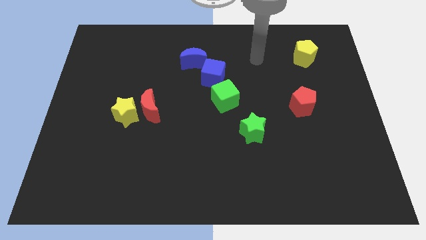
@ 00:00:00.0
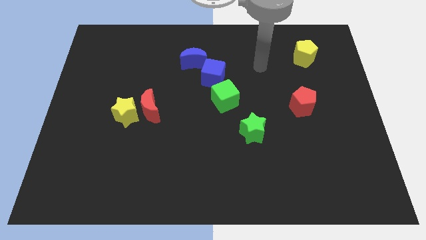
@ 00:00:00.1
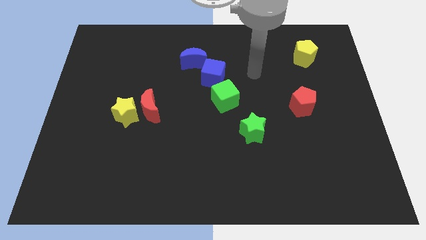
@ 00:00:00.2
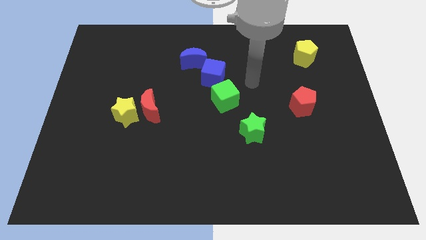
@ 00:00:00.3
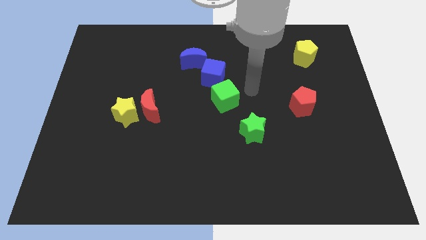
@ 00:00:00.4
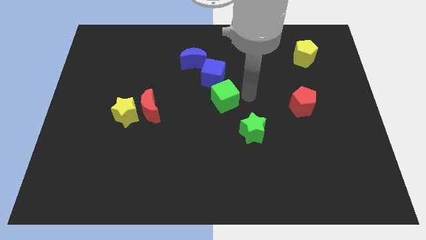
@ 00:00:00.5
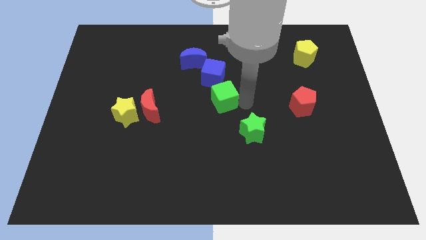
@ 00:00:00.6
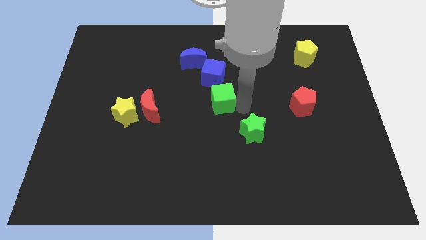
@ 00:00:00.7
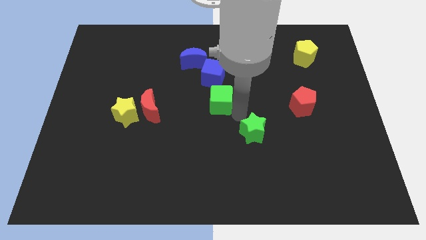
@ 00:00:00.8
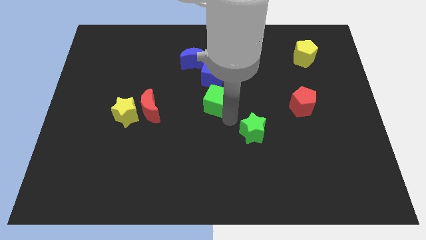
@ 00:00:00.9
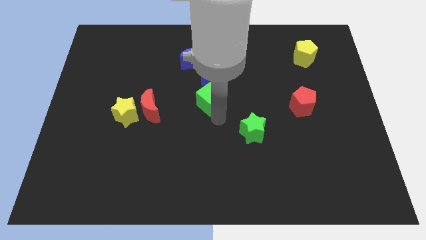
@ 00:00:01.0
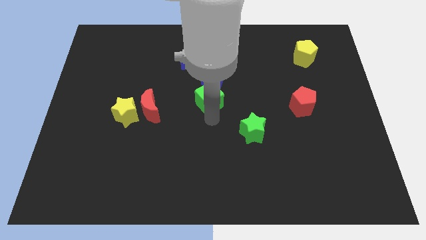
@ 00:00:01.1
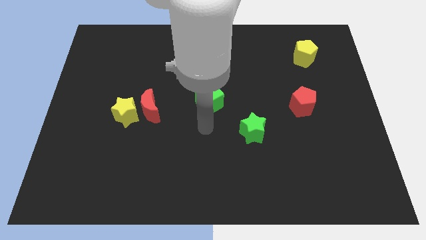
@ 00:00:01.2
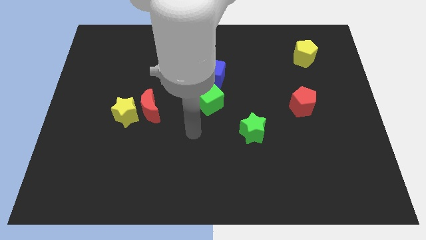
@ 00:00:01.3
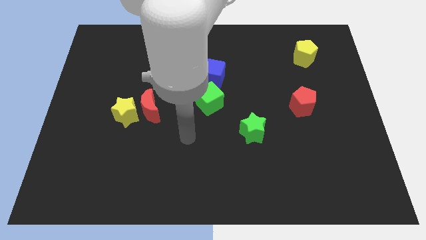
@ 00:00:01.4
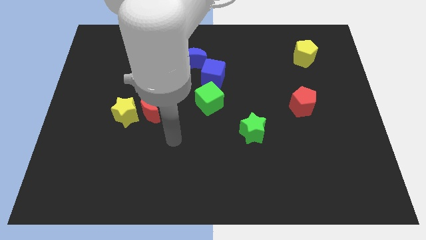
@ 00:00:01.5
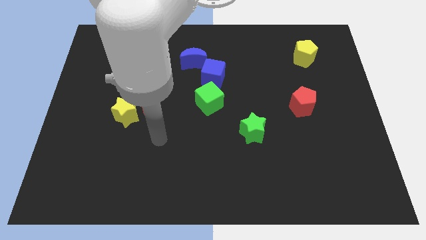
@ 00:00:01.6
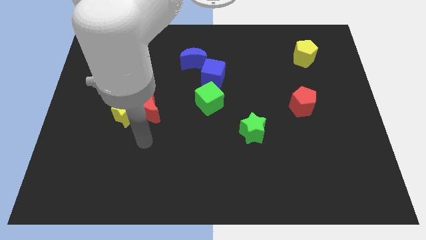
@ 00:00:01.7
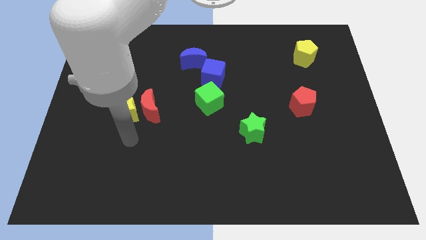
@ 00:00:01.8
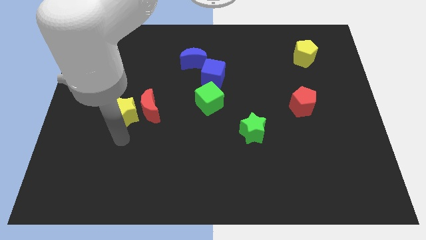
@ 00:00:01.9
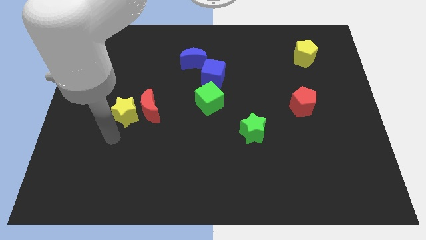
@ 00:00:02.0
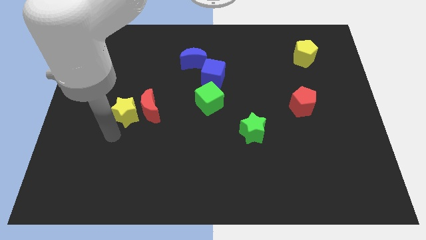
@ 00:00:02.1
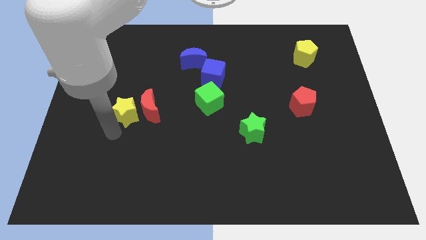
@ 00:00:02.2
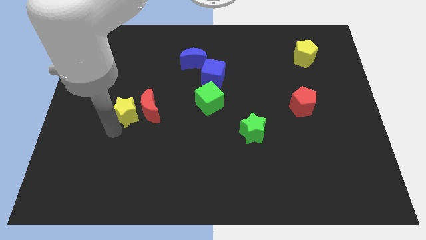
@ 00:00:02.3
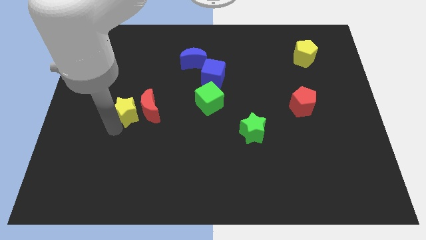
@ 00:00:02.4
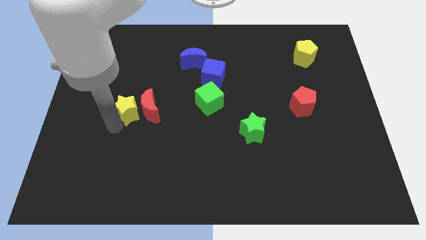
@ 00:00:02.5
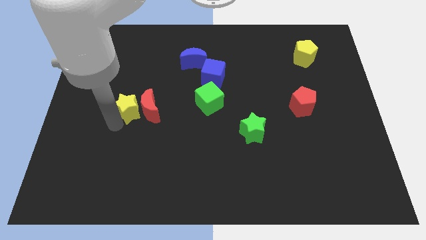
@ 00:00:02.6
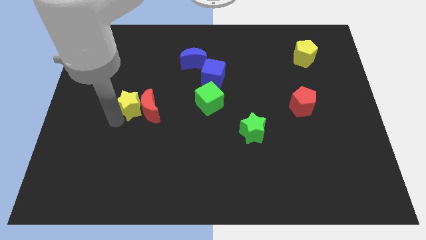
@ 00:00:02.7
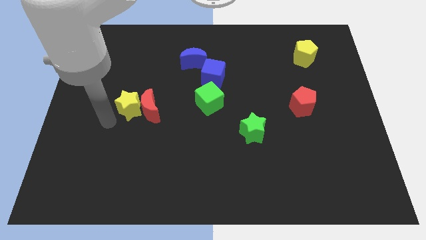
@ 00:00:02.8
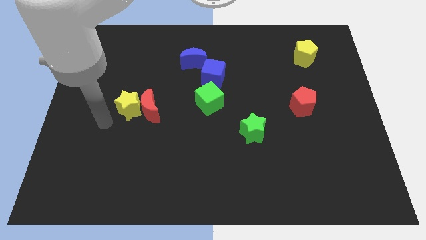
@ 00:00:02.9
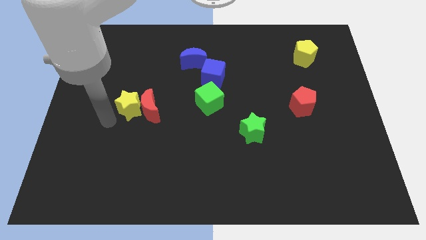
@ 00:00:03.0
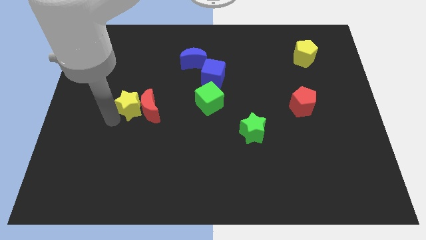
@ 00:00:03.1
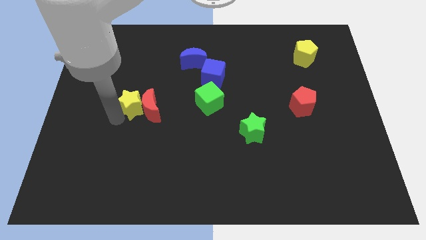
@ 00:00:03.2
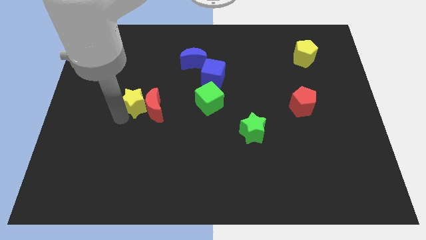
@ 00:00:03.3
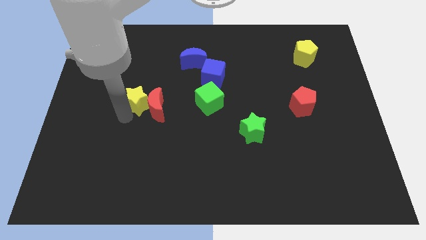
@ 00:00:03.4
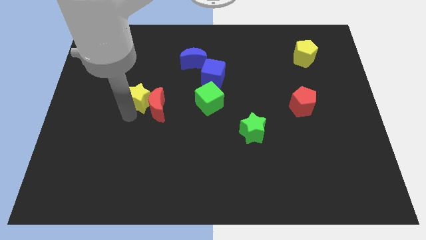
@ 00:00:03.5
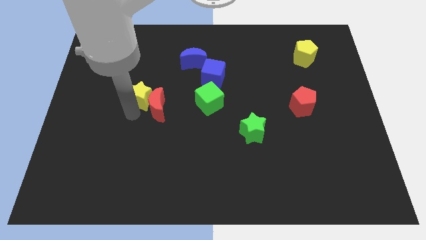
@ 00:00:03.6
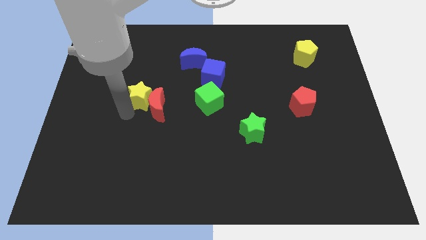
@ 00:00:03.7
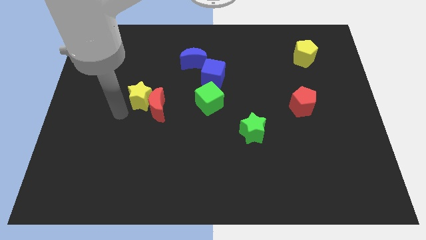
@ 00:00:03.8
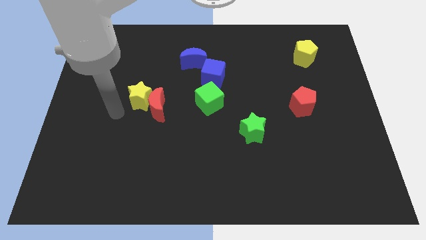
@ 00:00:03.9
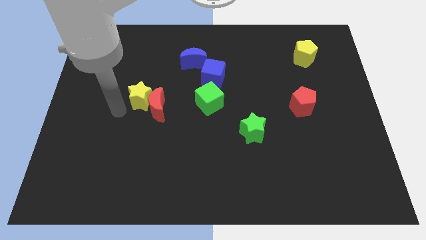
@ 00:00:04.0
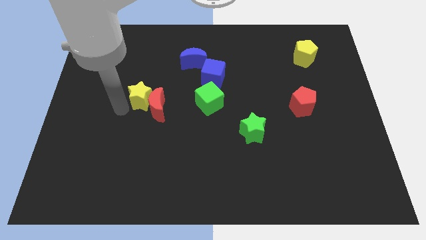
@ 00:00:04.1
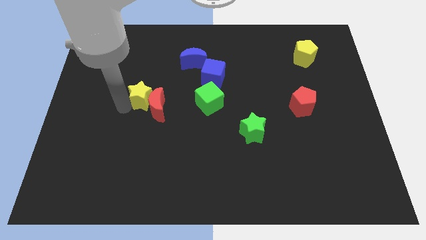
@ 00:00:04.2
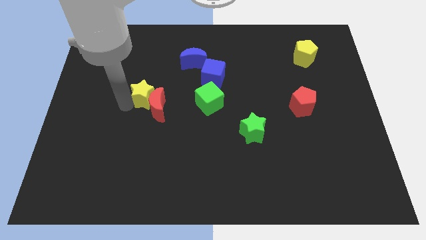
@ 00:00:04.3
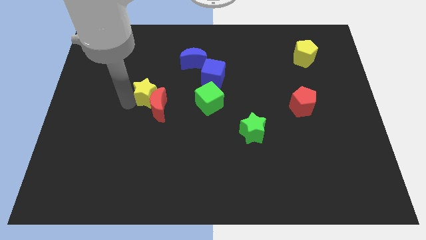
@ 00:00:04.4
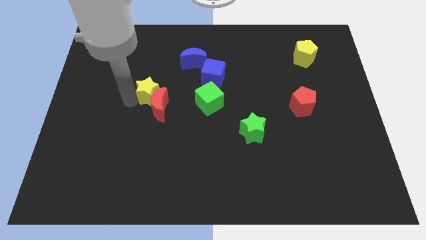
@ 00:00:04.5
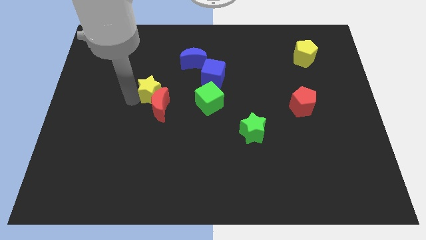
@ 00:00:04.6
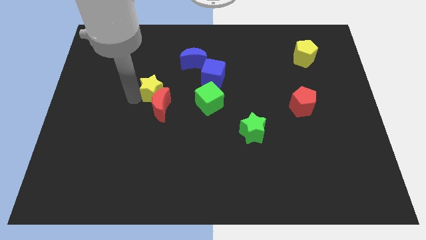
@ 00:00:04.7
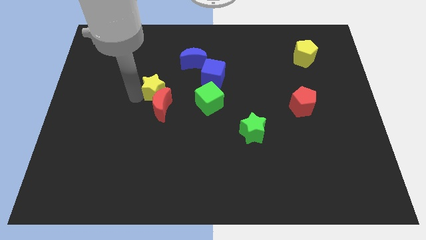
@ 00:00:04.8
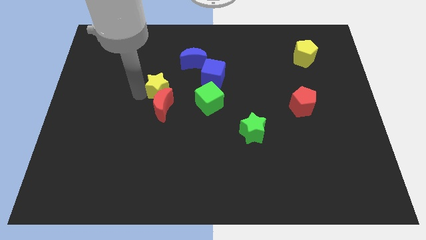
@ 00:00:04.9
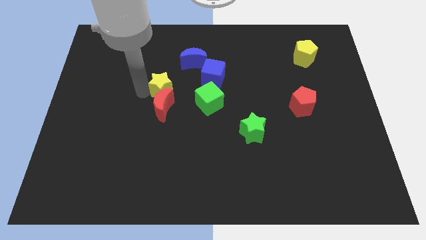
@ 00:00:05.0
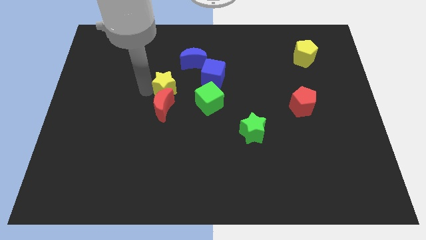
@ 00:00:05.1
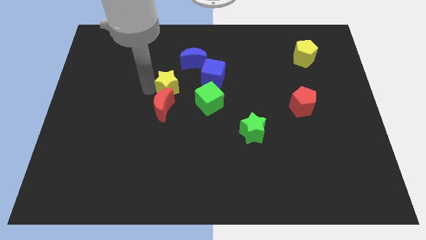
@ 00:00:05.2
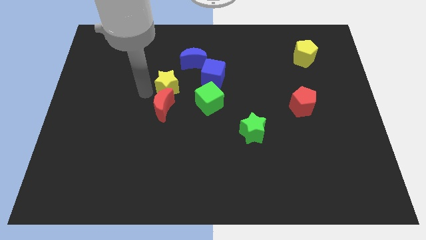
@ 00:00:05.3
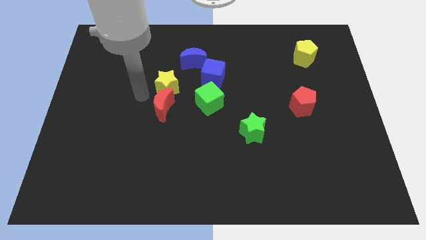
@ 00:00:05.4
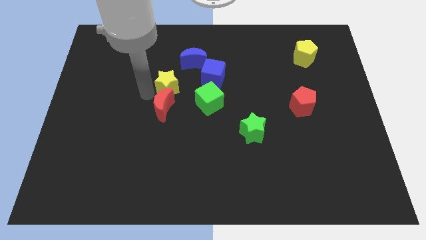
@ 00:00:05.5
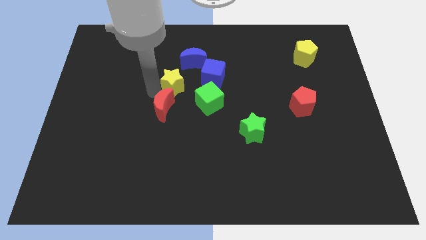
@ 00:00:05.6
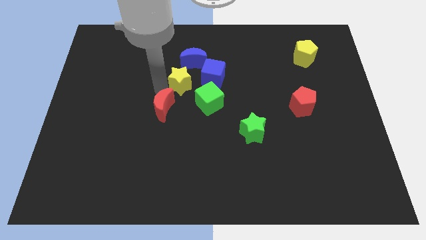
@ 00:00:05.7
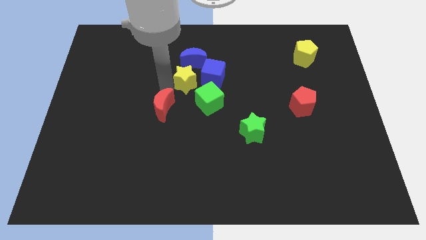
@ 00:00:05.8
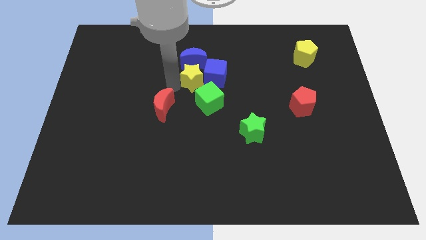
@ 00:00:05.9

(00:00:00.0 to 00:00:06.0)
move the yellow star close to the blue cube

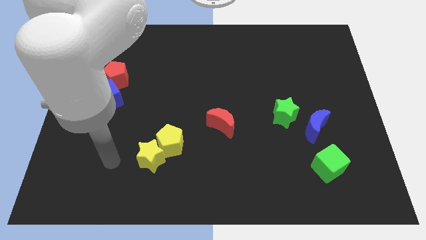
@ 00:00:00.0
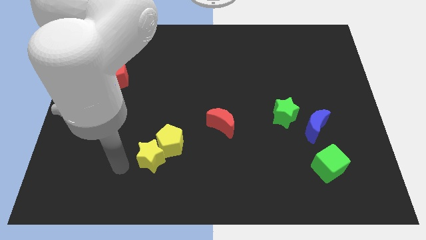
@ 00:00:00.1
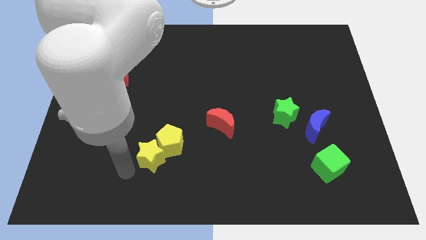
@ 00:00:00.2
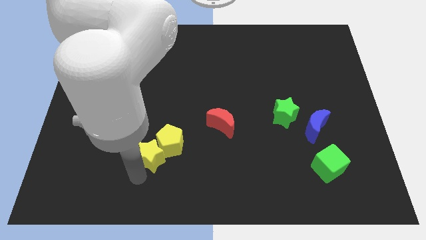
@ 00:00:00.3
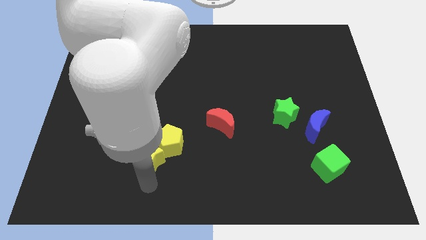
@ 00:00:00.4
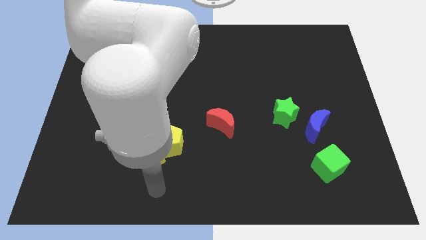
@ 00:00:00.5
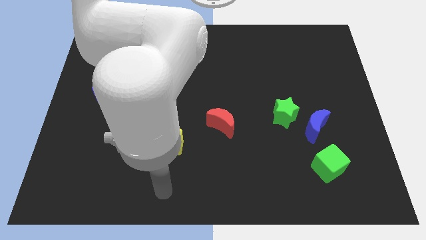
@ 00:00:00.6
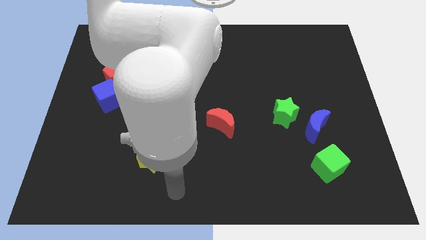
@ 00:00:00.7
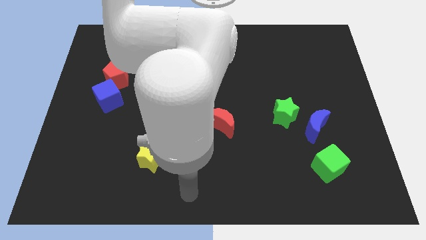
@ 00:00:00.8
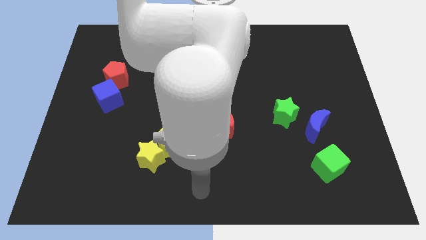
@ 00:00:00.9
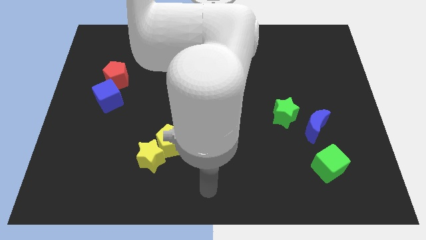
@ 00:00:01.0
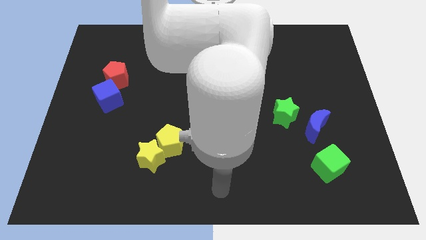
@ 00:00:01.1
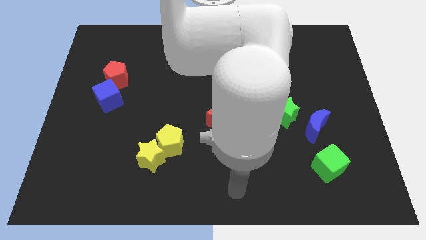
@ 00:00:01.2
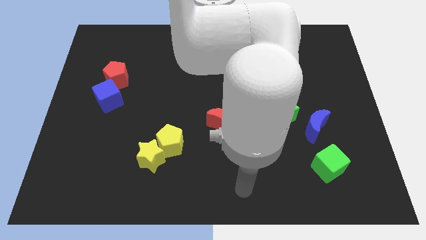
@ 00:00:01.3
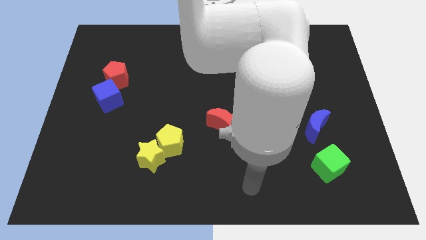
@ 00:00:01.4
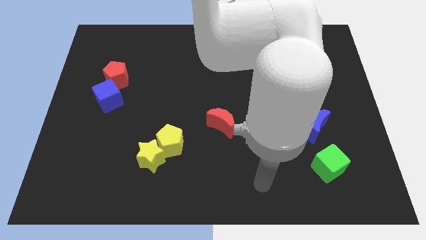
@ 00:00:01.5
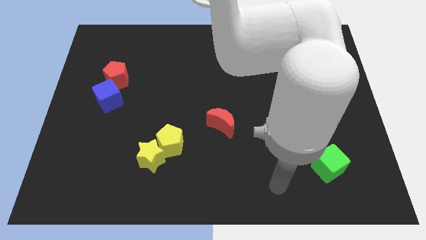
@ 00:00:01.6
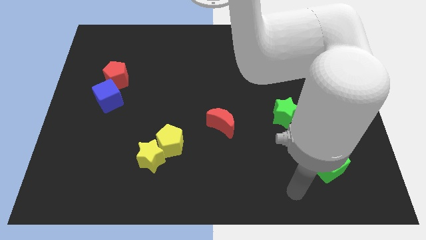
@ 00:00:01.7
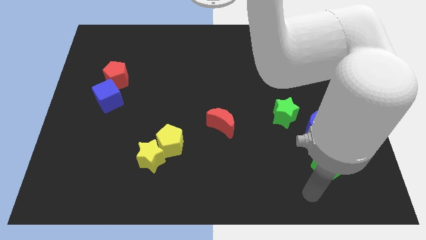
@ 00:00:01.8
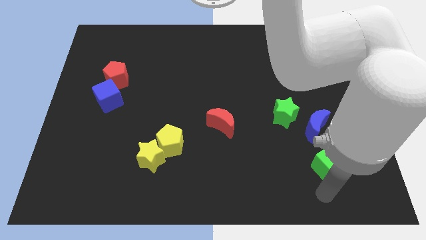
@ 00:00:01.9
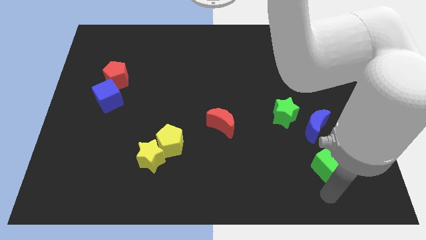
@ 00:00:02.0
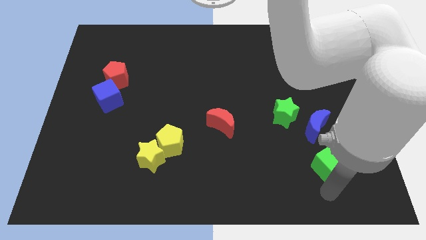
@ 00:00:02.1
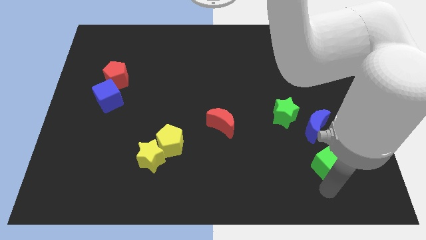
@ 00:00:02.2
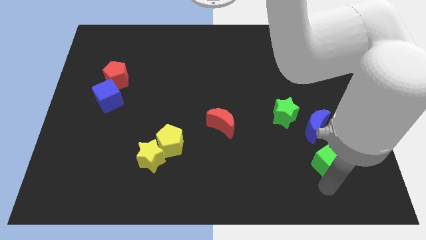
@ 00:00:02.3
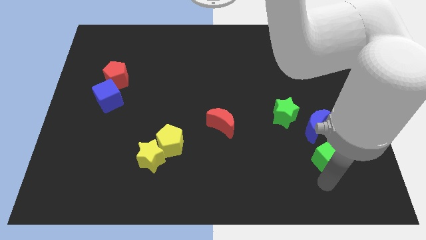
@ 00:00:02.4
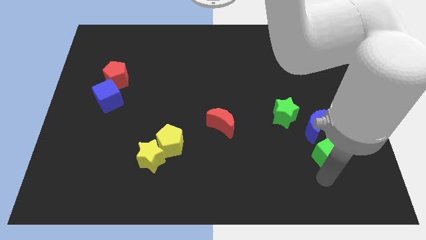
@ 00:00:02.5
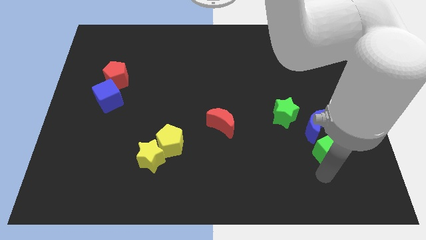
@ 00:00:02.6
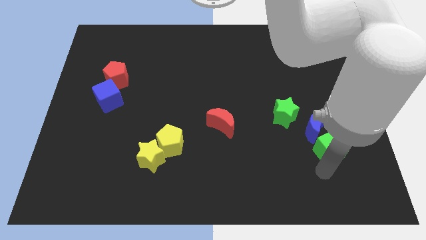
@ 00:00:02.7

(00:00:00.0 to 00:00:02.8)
slide the green cube next to the blue moon
